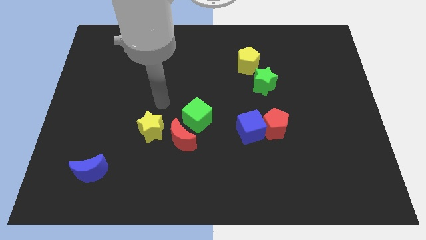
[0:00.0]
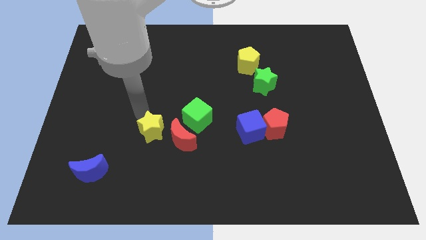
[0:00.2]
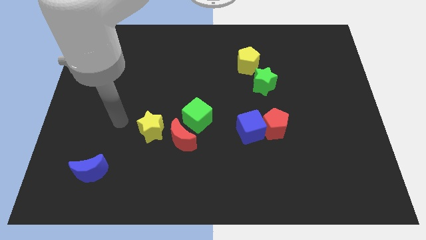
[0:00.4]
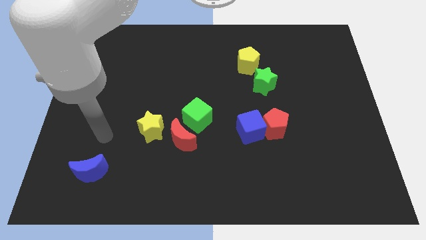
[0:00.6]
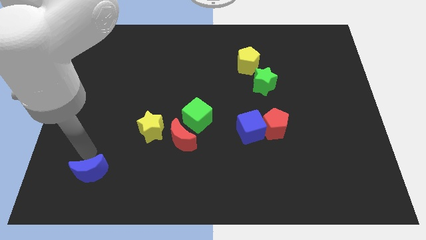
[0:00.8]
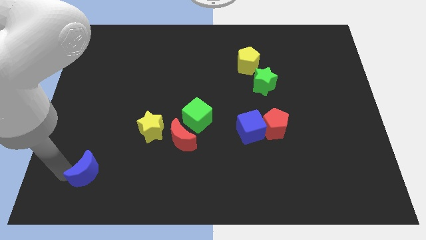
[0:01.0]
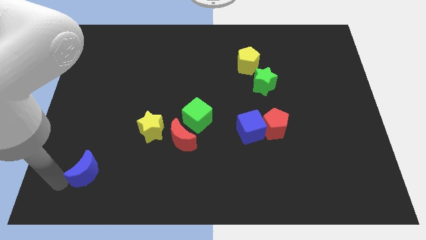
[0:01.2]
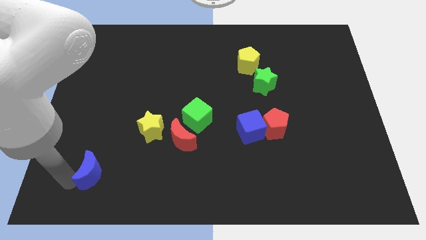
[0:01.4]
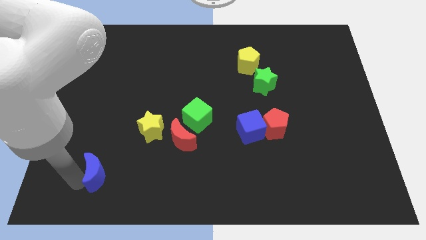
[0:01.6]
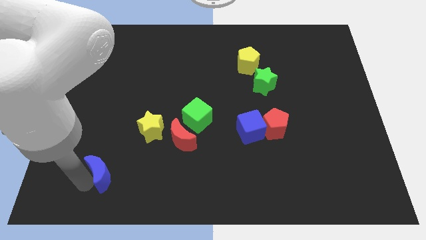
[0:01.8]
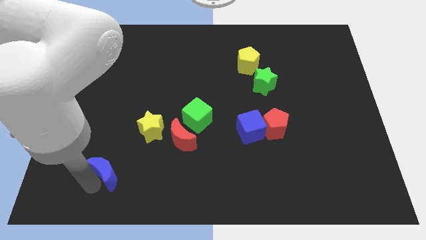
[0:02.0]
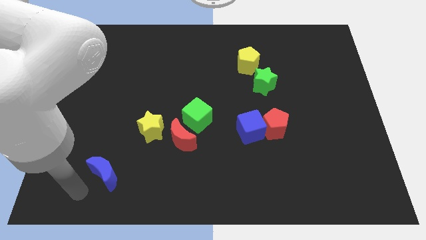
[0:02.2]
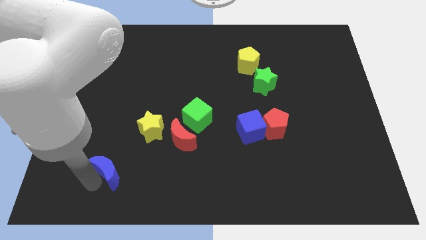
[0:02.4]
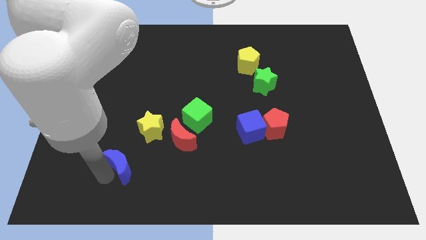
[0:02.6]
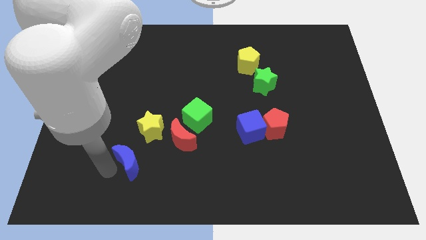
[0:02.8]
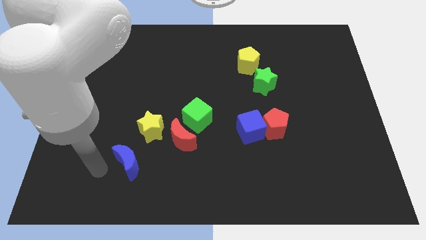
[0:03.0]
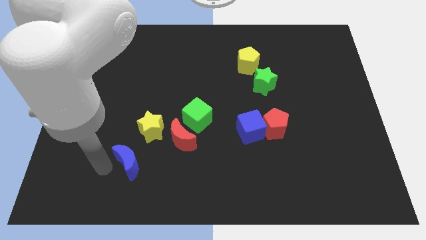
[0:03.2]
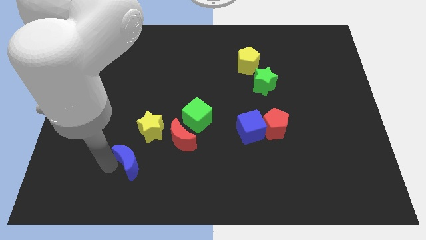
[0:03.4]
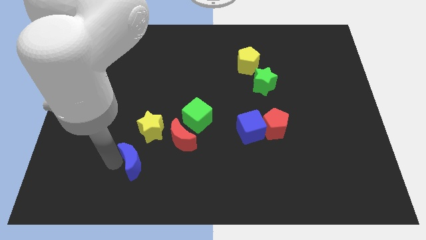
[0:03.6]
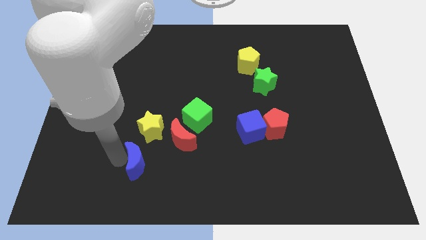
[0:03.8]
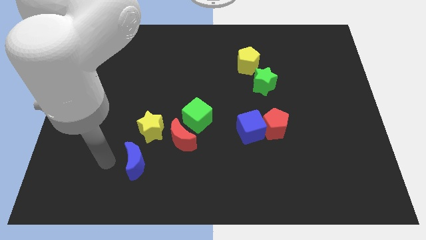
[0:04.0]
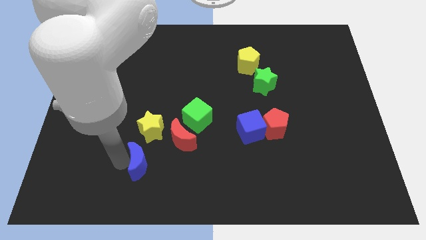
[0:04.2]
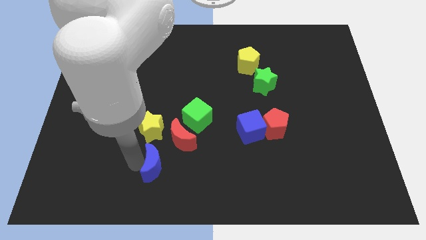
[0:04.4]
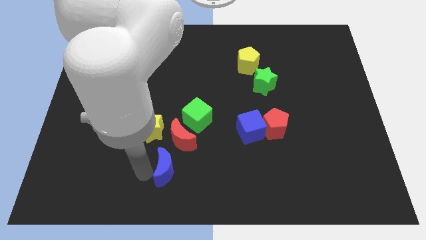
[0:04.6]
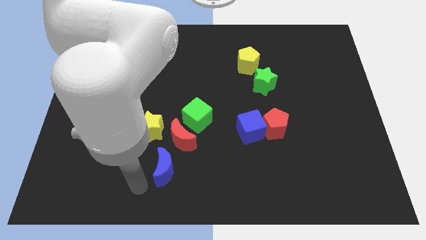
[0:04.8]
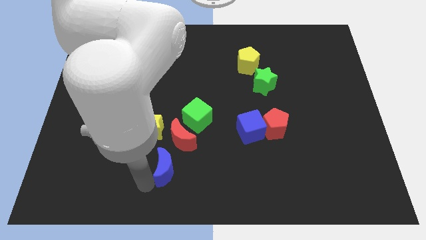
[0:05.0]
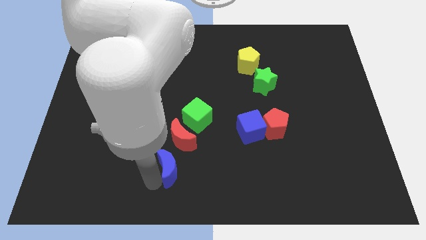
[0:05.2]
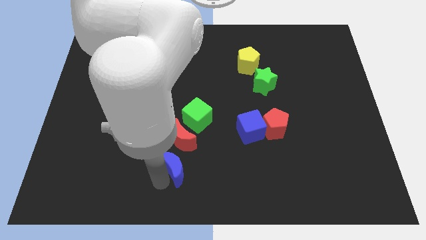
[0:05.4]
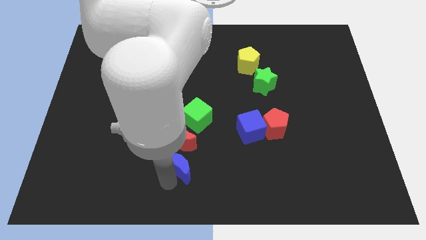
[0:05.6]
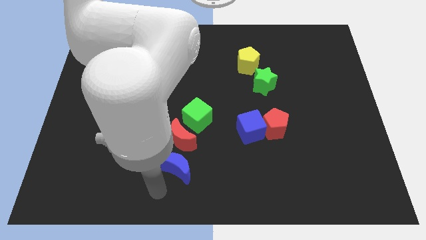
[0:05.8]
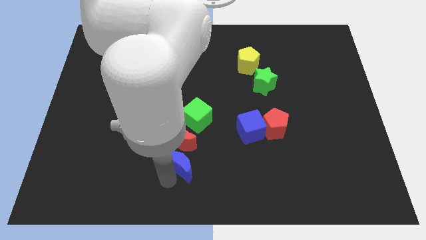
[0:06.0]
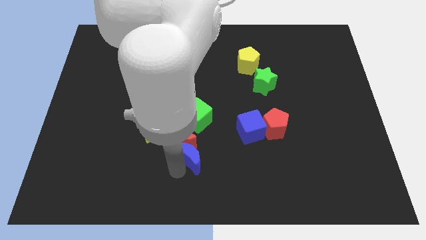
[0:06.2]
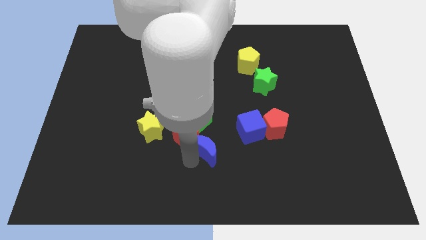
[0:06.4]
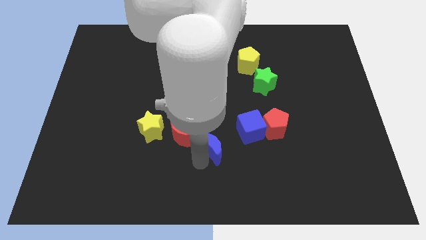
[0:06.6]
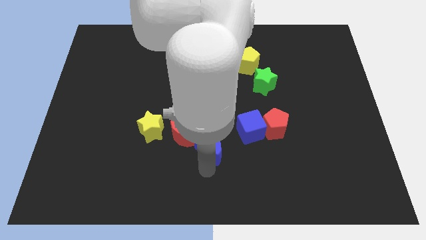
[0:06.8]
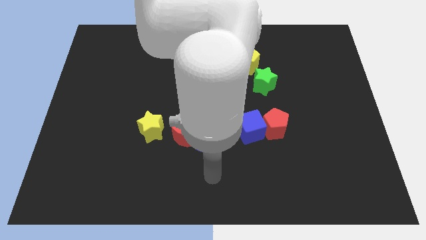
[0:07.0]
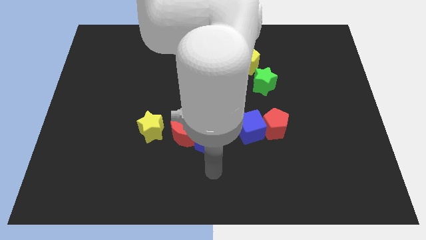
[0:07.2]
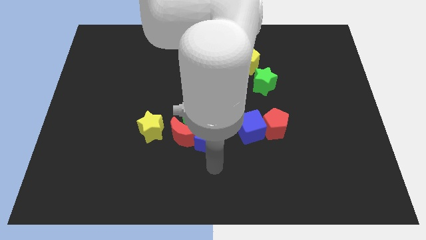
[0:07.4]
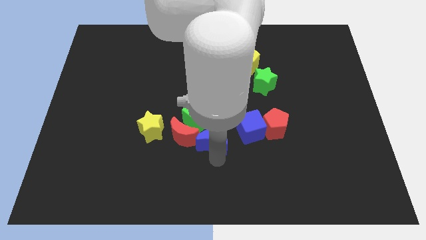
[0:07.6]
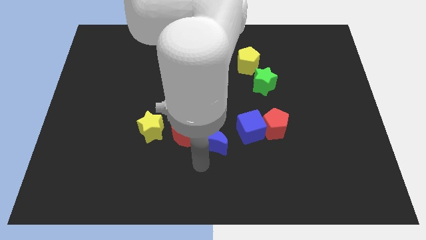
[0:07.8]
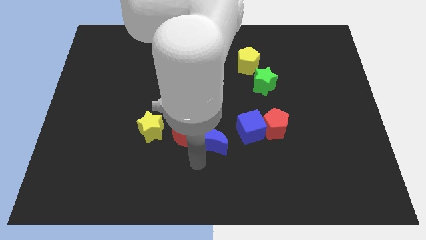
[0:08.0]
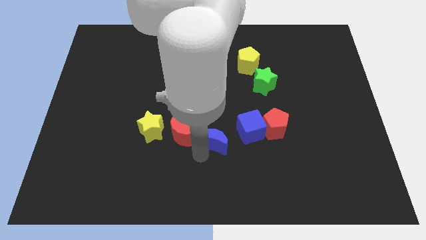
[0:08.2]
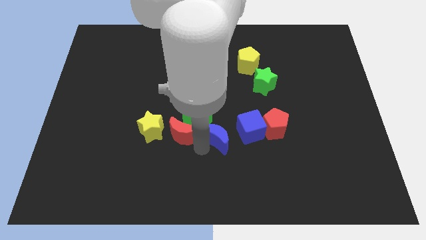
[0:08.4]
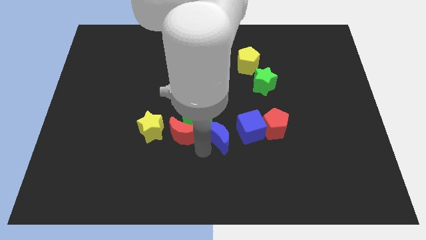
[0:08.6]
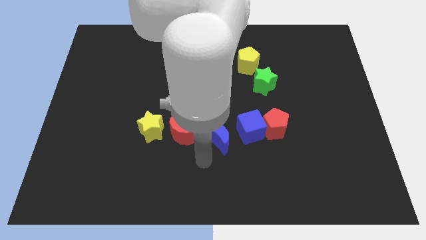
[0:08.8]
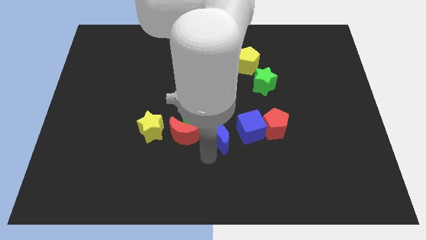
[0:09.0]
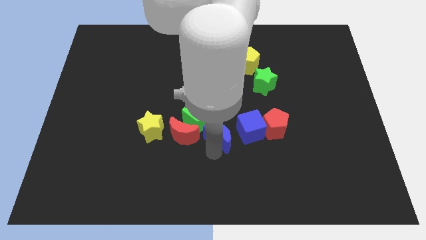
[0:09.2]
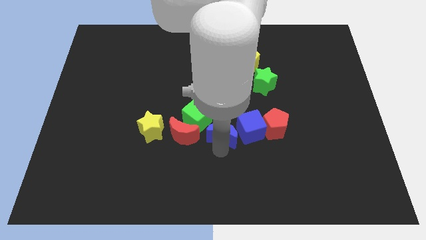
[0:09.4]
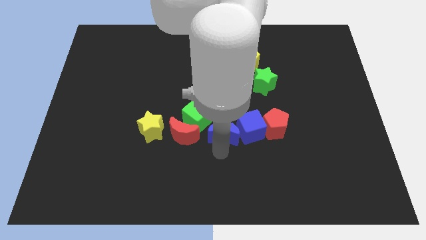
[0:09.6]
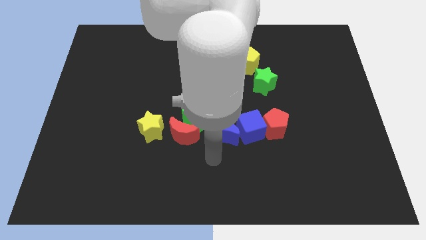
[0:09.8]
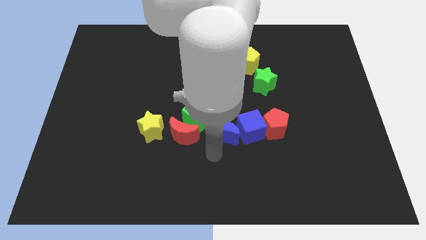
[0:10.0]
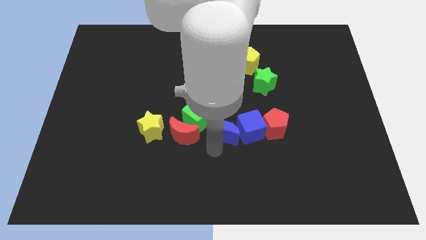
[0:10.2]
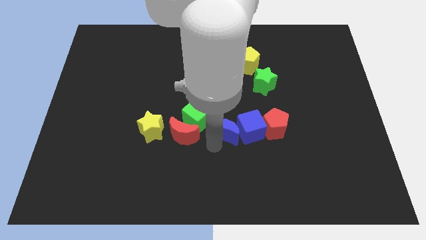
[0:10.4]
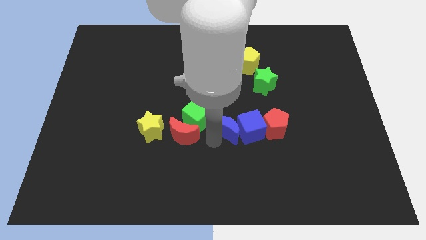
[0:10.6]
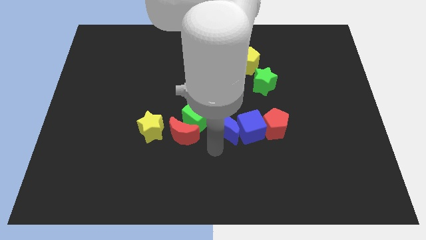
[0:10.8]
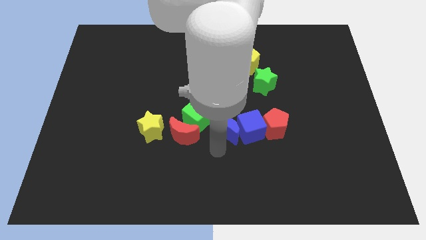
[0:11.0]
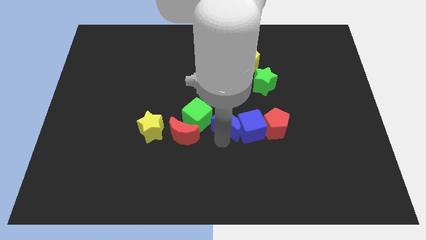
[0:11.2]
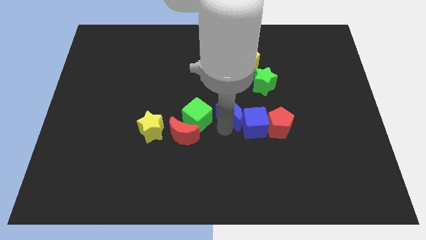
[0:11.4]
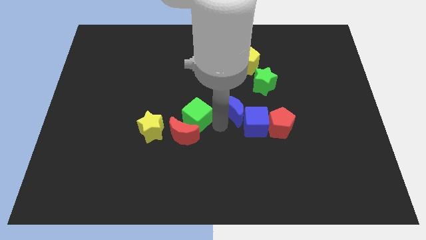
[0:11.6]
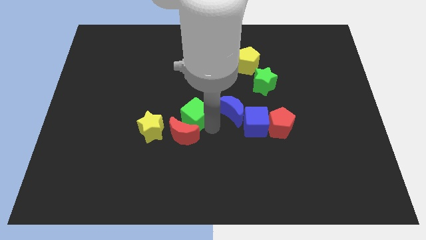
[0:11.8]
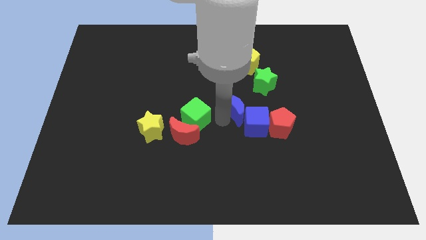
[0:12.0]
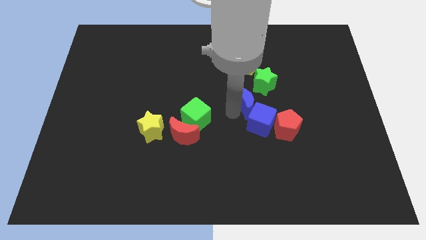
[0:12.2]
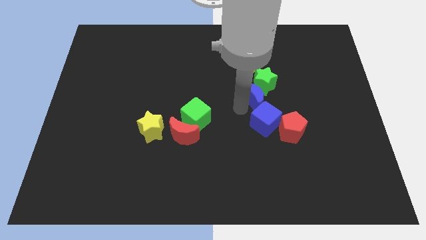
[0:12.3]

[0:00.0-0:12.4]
move the blue moon close to the green star
